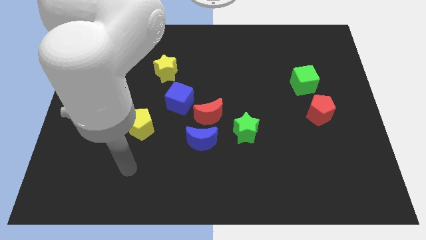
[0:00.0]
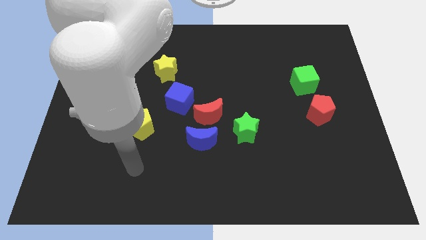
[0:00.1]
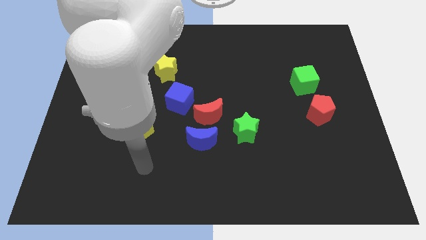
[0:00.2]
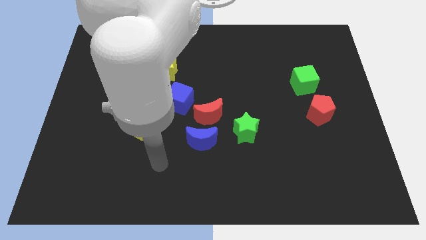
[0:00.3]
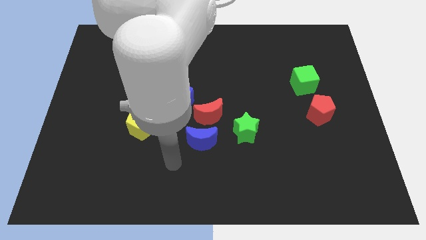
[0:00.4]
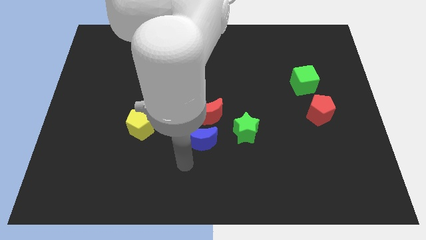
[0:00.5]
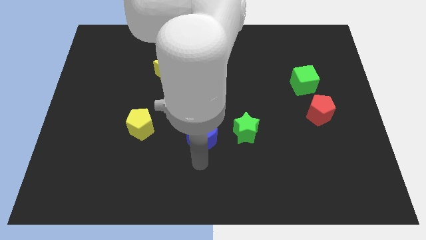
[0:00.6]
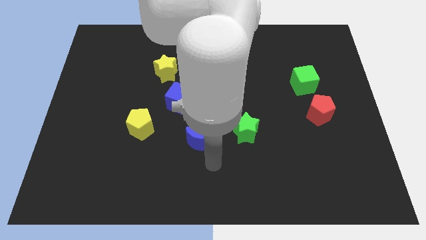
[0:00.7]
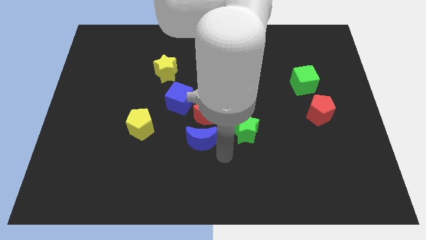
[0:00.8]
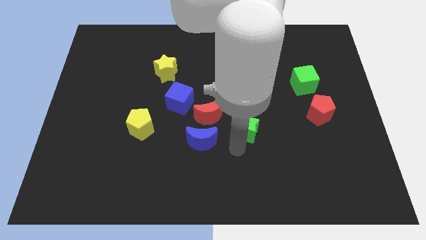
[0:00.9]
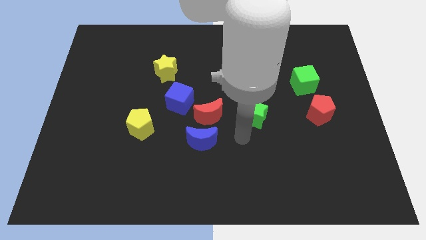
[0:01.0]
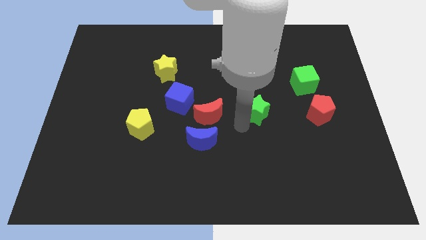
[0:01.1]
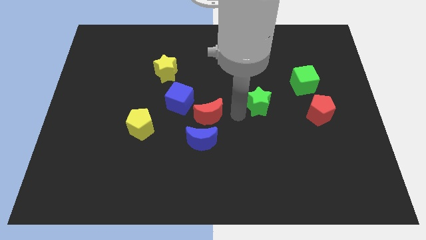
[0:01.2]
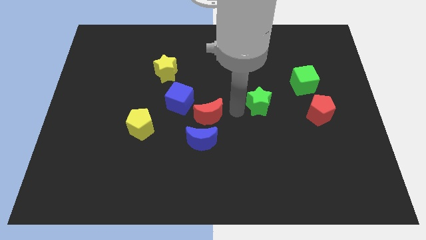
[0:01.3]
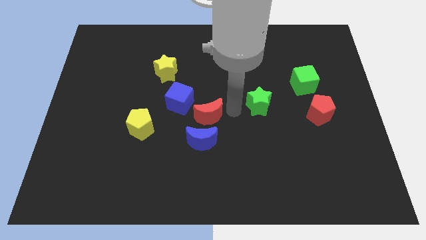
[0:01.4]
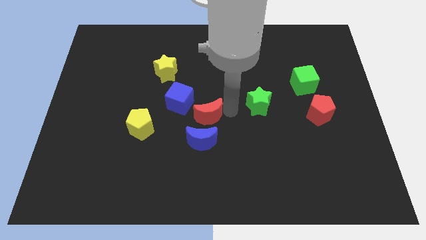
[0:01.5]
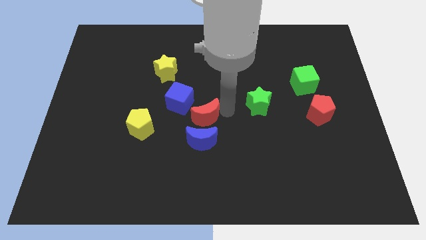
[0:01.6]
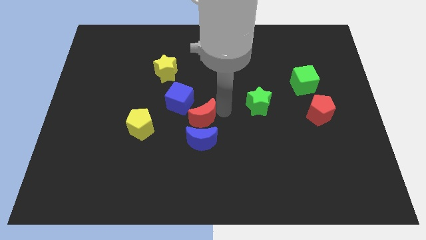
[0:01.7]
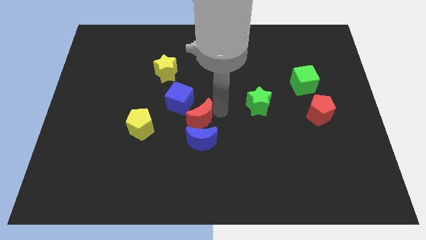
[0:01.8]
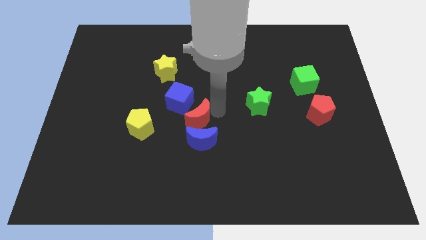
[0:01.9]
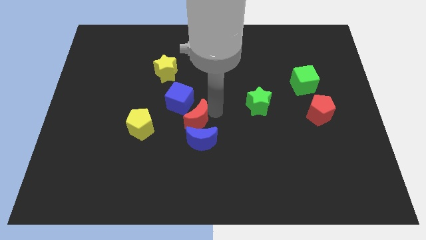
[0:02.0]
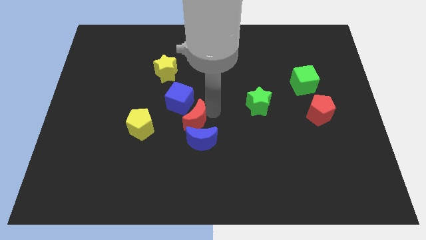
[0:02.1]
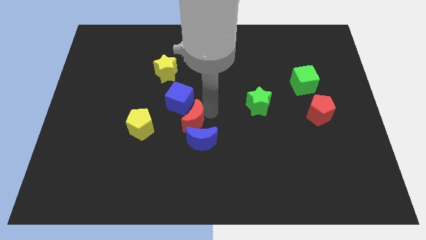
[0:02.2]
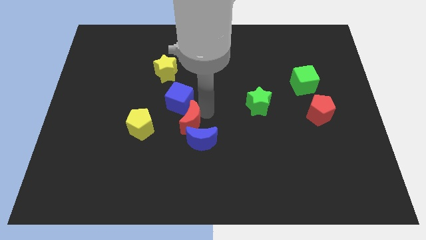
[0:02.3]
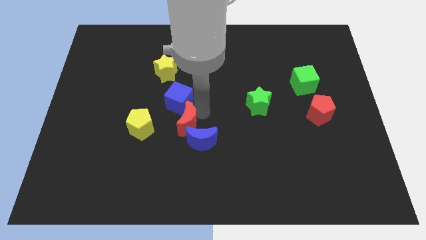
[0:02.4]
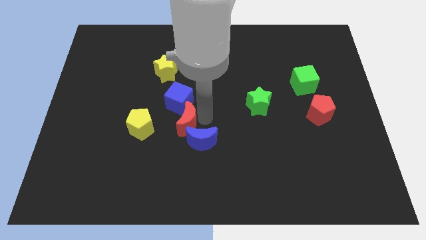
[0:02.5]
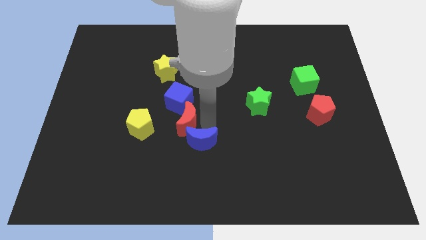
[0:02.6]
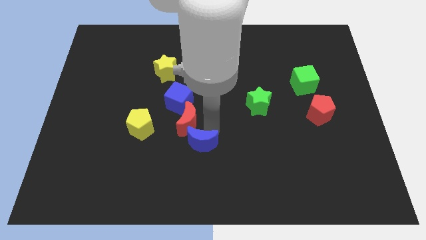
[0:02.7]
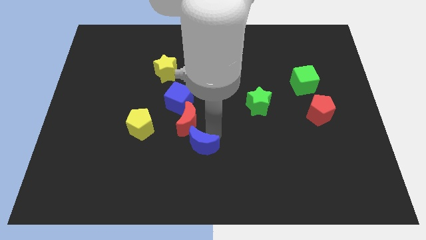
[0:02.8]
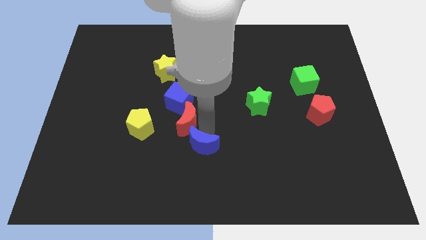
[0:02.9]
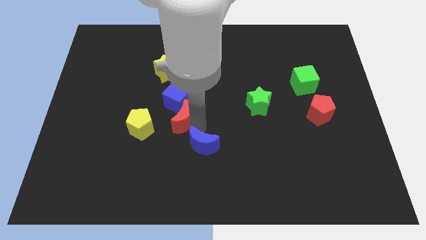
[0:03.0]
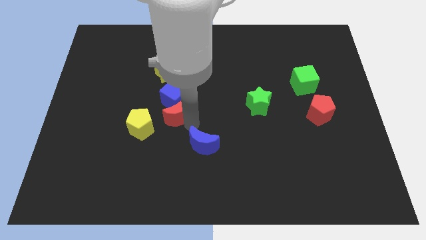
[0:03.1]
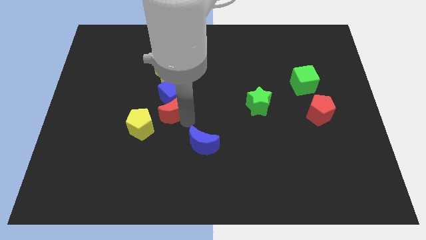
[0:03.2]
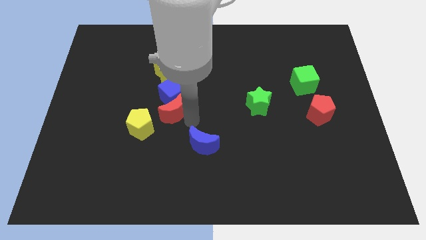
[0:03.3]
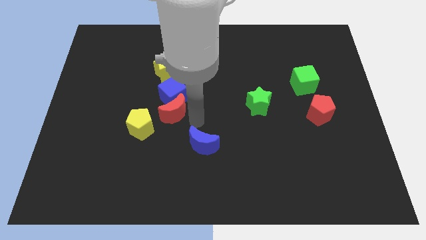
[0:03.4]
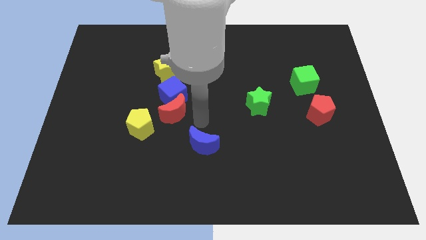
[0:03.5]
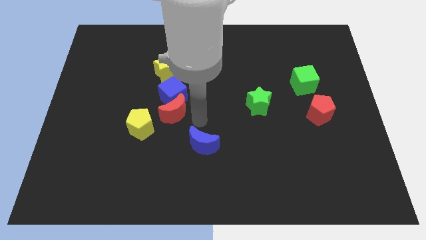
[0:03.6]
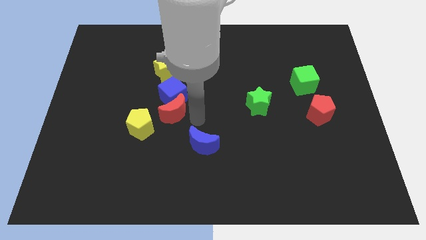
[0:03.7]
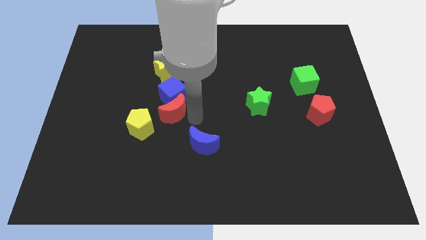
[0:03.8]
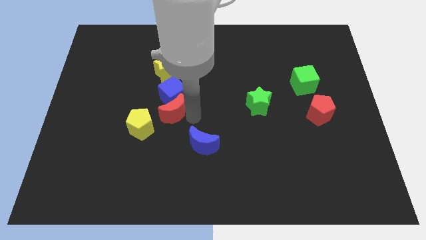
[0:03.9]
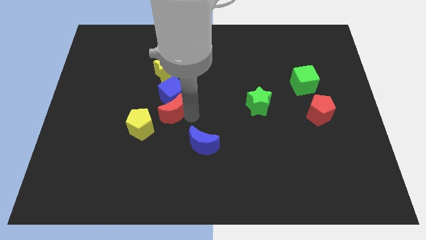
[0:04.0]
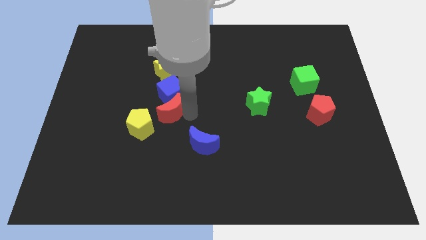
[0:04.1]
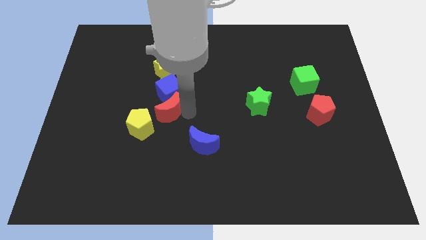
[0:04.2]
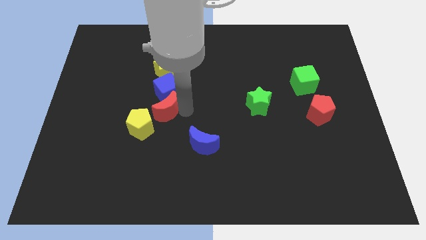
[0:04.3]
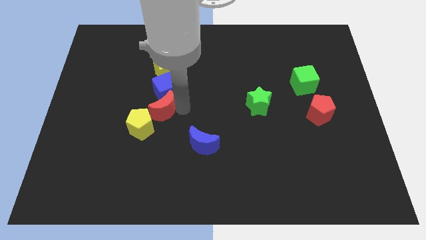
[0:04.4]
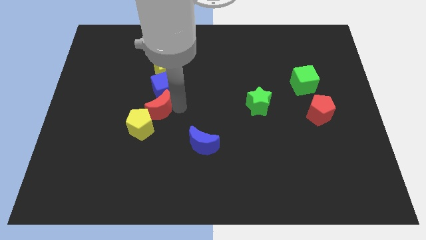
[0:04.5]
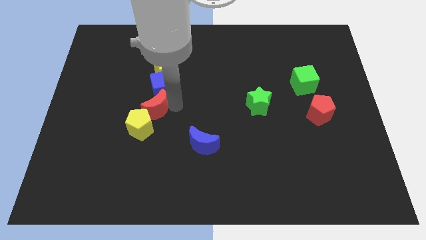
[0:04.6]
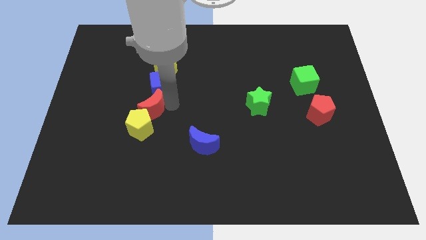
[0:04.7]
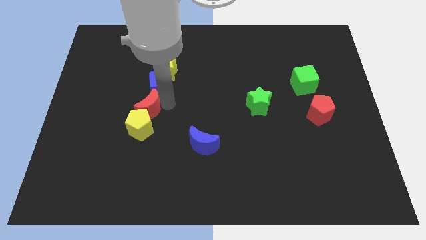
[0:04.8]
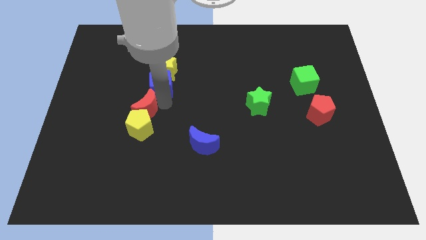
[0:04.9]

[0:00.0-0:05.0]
slide the red moon diagonally up and to the left of the yellow pentagon

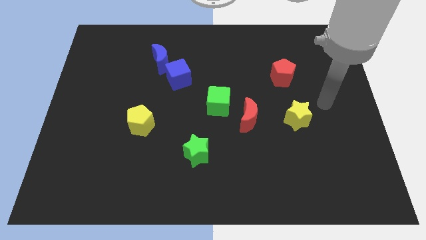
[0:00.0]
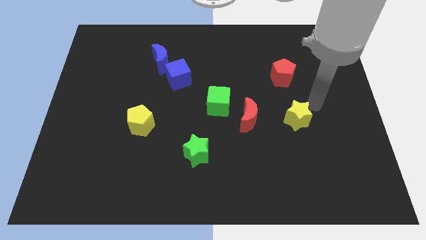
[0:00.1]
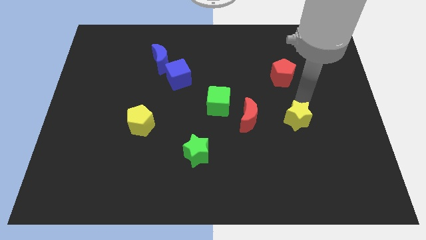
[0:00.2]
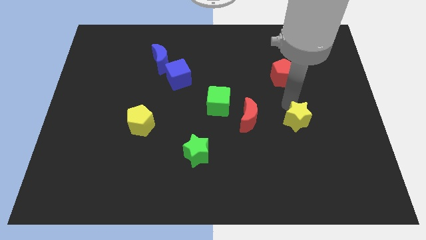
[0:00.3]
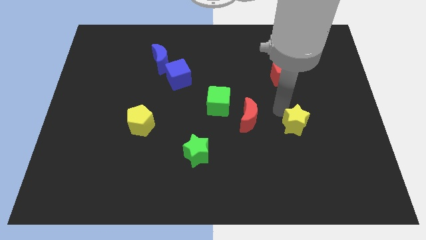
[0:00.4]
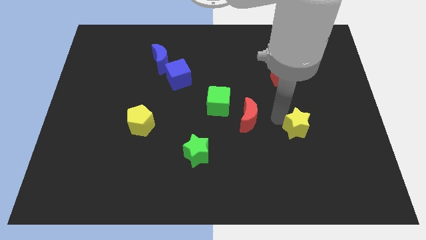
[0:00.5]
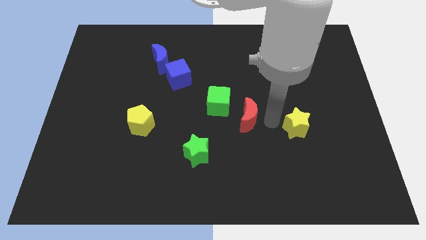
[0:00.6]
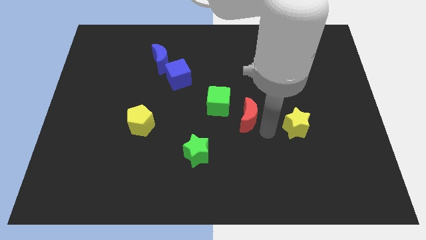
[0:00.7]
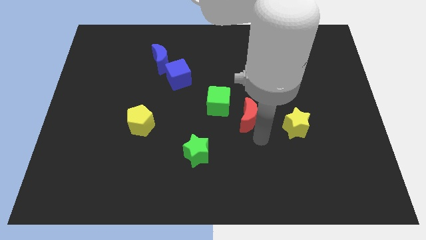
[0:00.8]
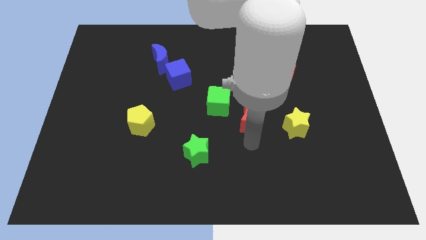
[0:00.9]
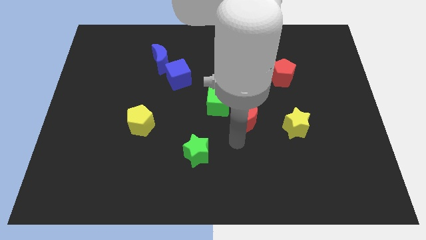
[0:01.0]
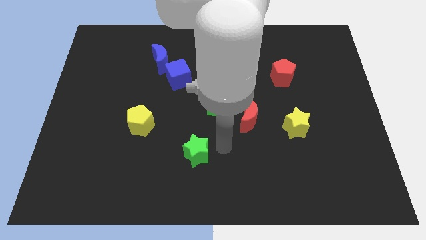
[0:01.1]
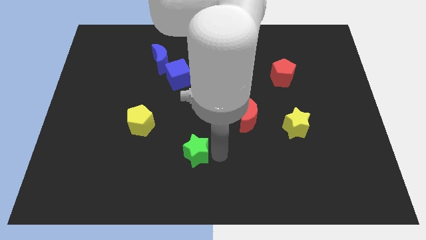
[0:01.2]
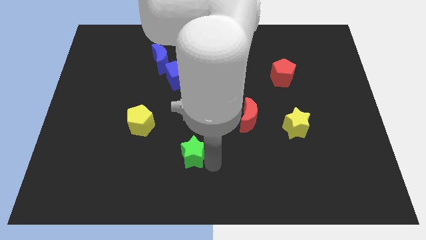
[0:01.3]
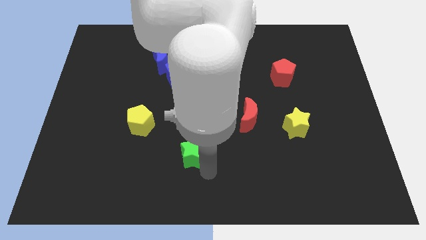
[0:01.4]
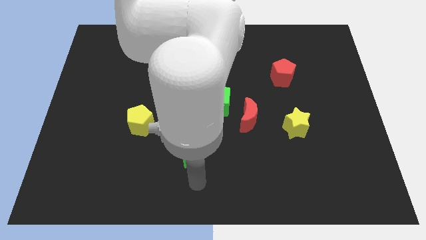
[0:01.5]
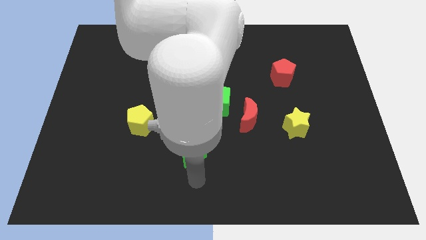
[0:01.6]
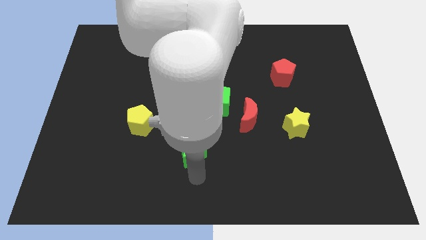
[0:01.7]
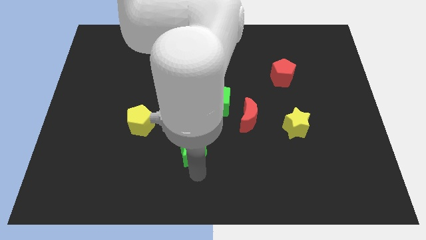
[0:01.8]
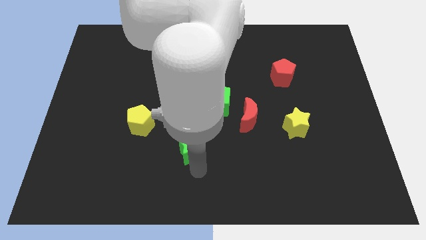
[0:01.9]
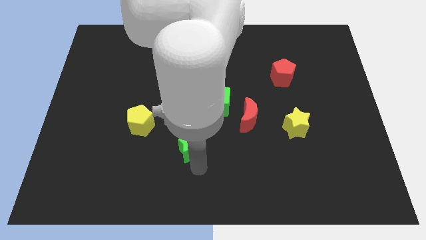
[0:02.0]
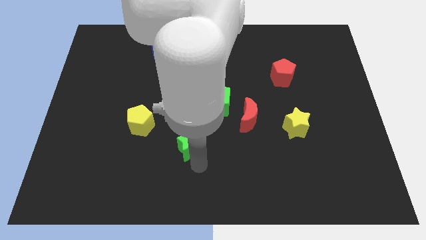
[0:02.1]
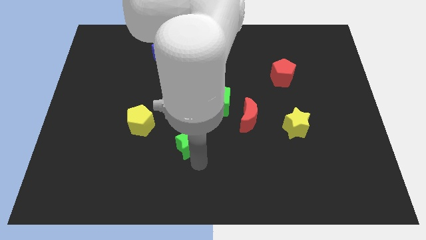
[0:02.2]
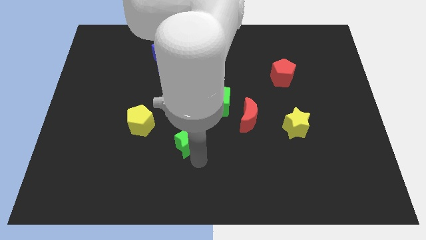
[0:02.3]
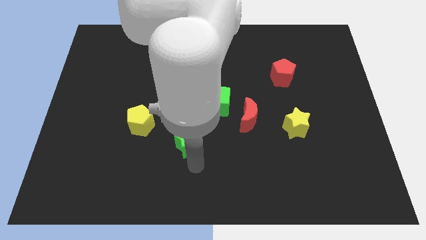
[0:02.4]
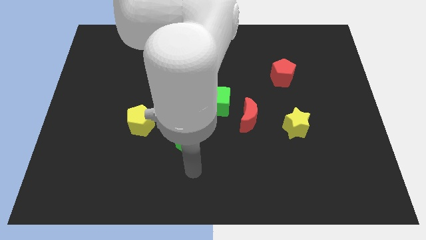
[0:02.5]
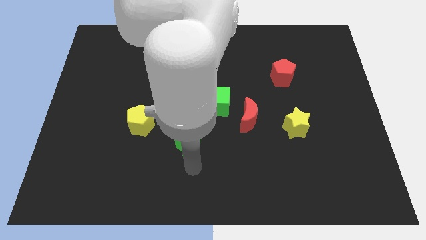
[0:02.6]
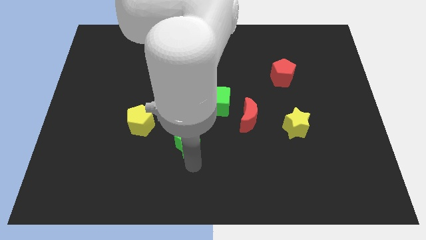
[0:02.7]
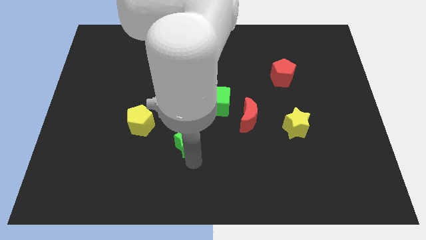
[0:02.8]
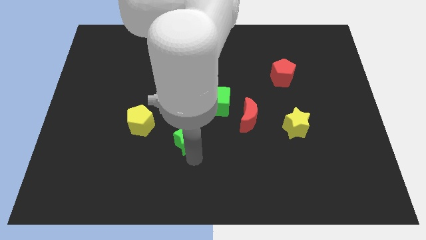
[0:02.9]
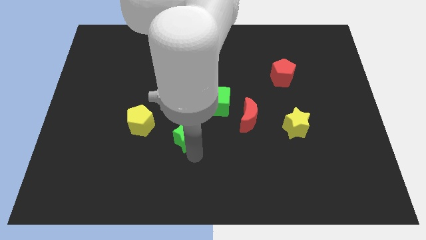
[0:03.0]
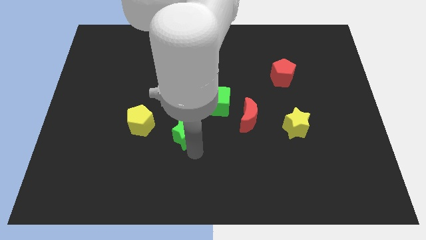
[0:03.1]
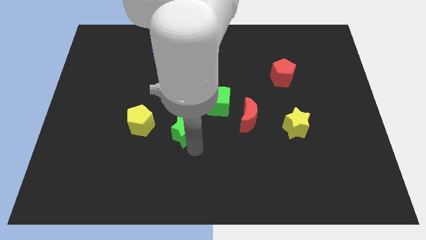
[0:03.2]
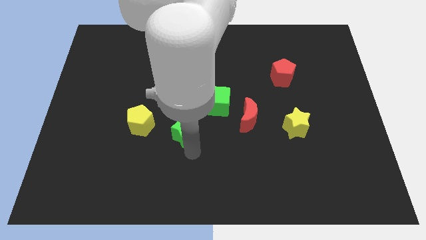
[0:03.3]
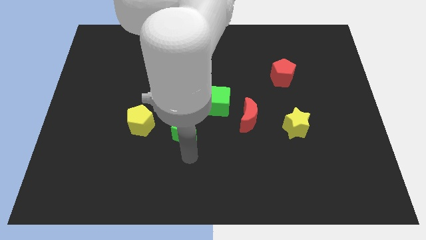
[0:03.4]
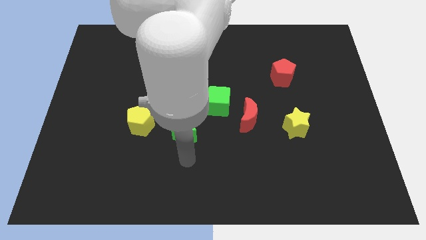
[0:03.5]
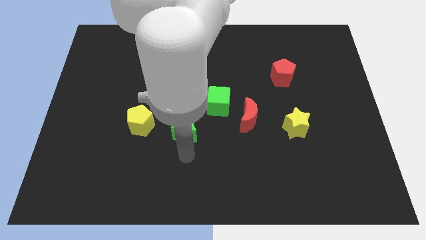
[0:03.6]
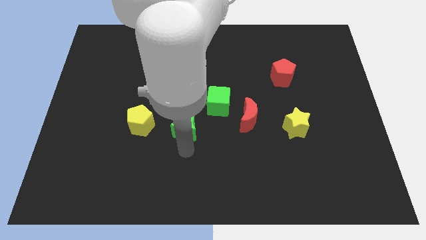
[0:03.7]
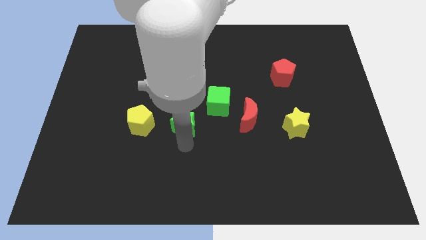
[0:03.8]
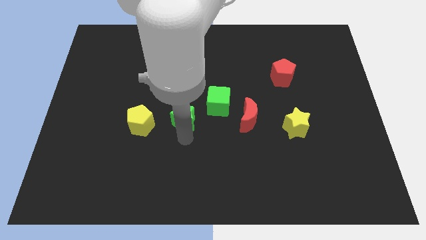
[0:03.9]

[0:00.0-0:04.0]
put the green star to the left of the green cube
